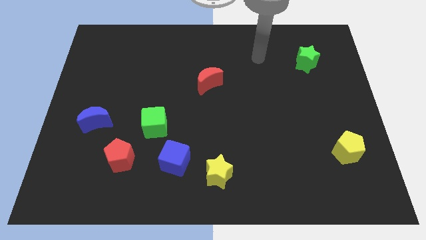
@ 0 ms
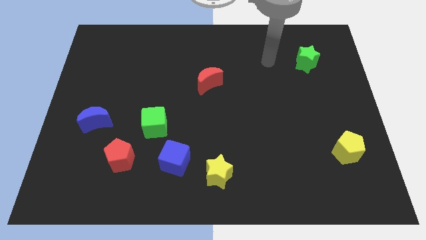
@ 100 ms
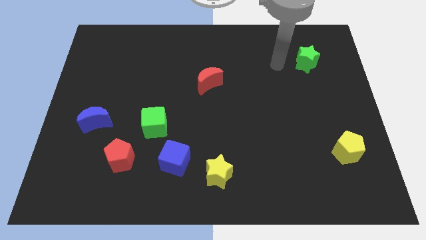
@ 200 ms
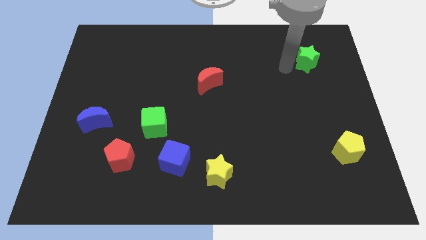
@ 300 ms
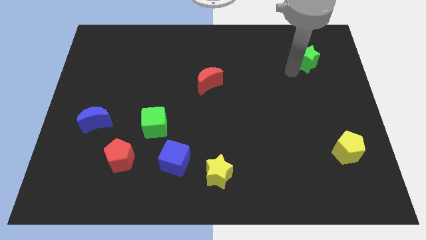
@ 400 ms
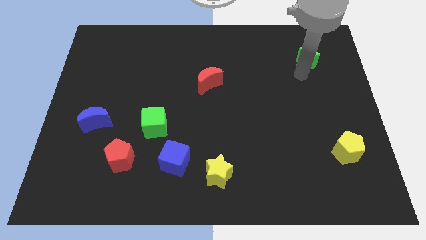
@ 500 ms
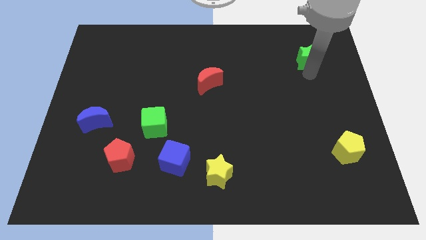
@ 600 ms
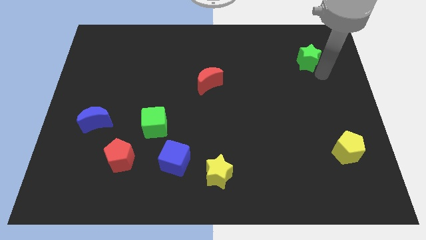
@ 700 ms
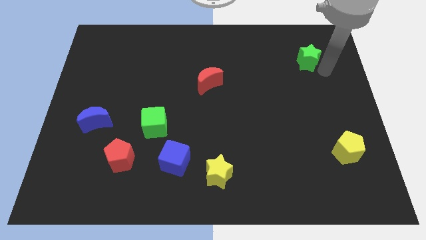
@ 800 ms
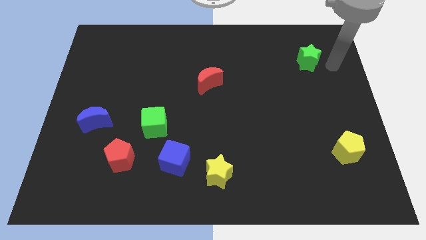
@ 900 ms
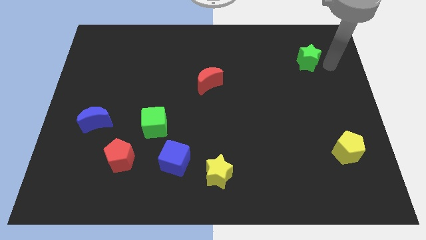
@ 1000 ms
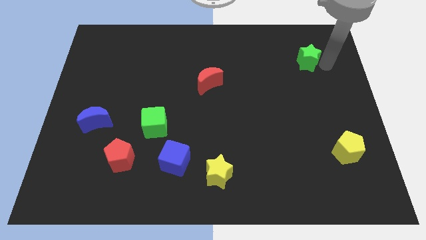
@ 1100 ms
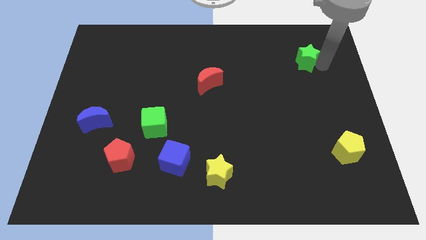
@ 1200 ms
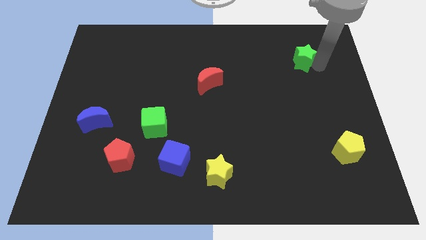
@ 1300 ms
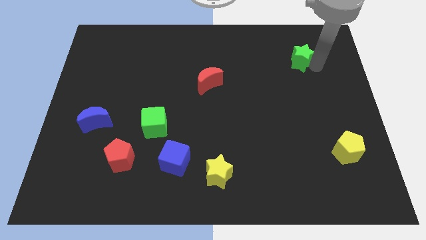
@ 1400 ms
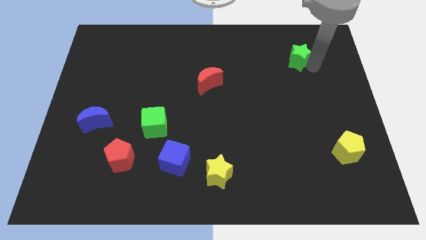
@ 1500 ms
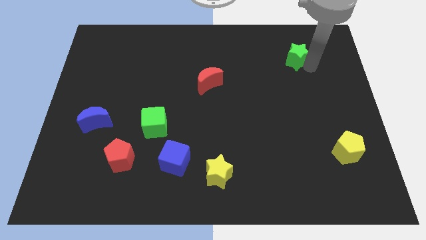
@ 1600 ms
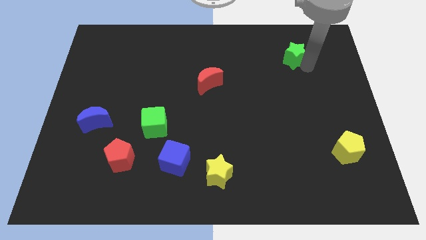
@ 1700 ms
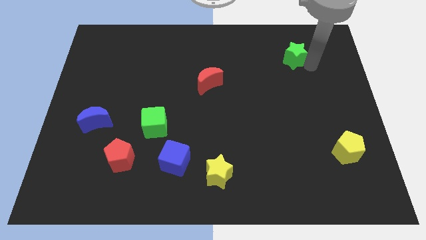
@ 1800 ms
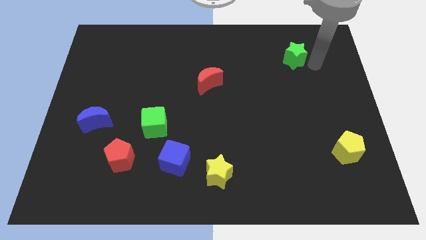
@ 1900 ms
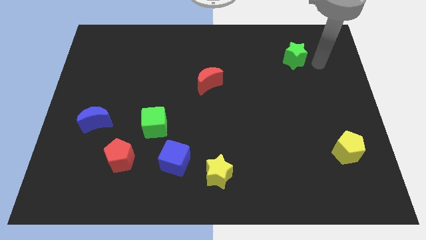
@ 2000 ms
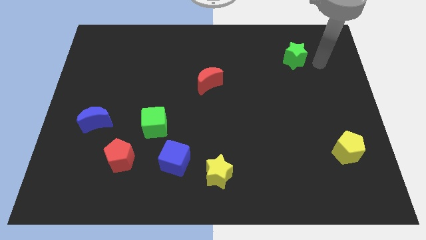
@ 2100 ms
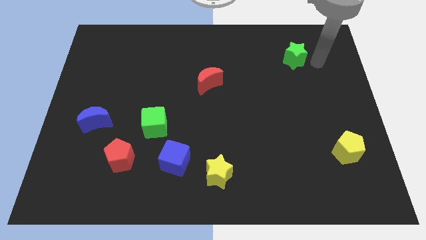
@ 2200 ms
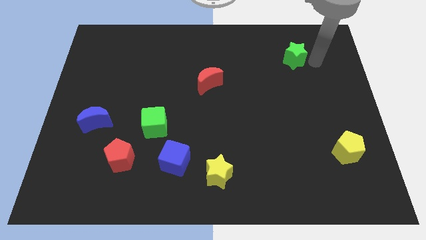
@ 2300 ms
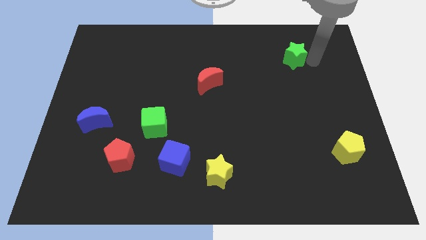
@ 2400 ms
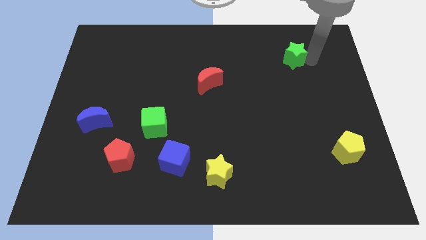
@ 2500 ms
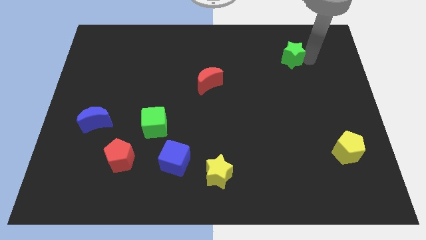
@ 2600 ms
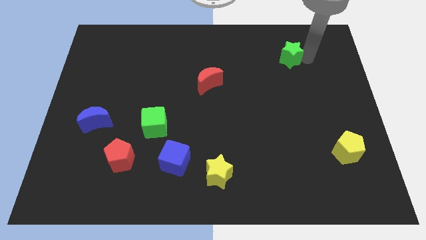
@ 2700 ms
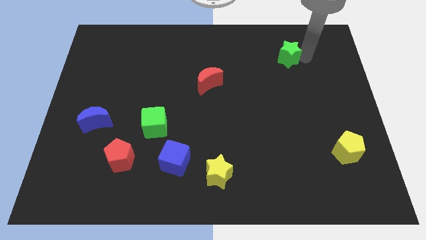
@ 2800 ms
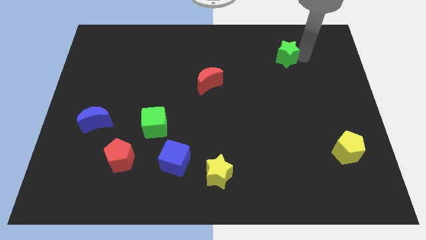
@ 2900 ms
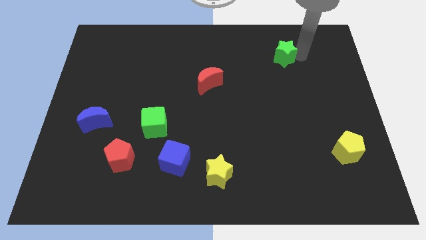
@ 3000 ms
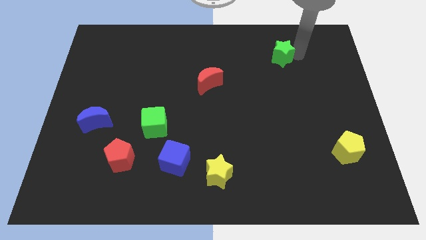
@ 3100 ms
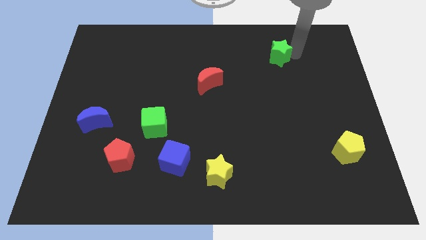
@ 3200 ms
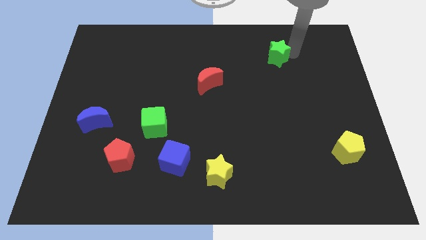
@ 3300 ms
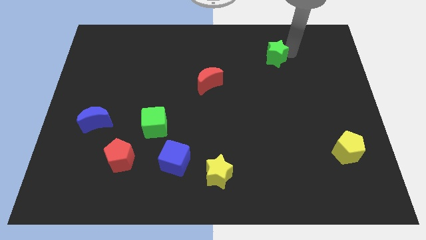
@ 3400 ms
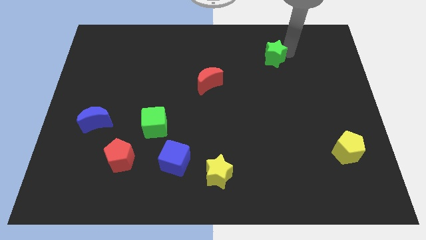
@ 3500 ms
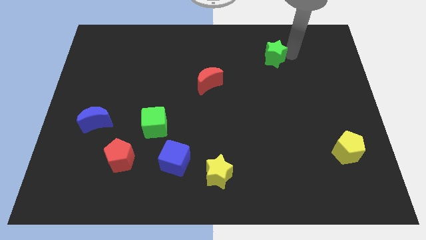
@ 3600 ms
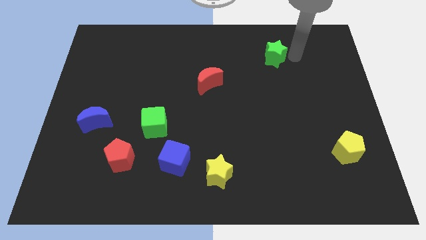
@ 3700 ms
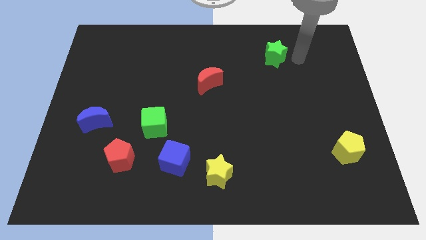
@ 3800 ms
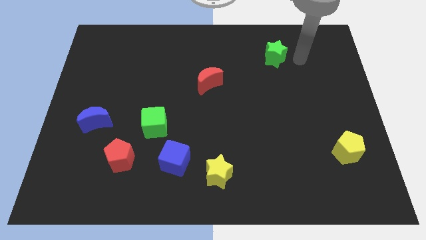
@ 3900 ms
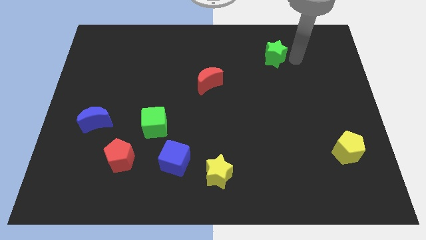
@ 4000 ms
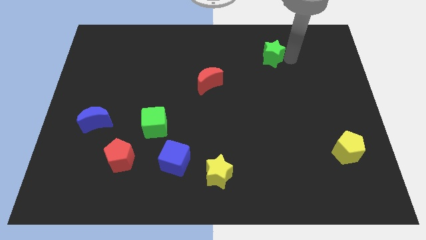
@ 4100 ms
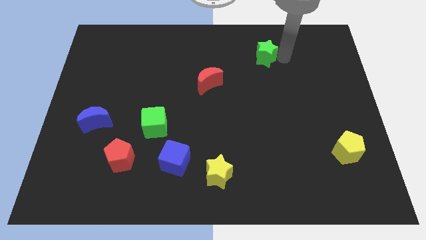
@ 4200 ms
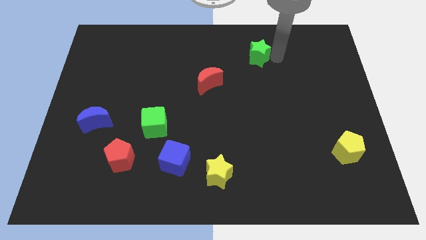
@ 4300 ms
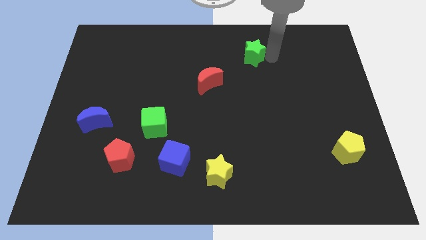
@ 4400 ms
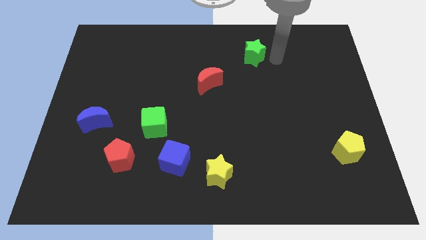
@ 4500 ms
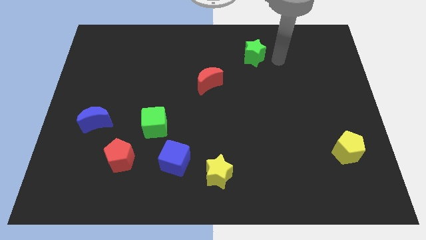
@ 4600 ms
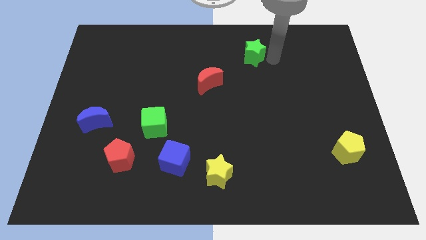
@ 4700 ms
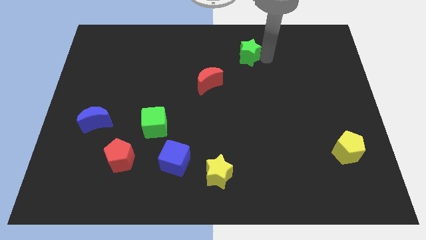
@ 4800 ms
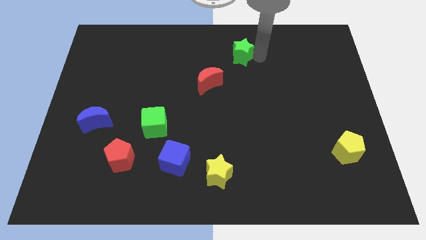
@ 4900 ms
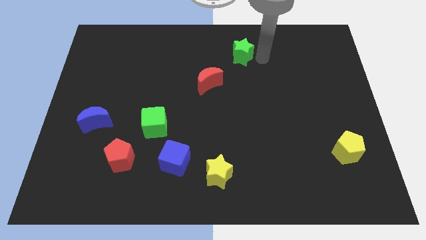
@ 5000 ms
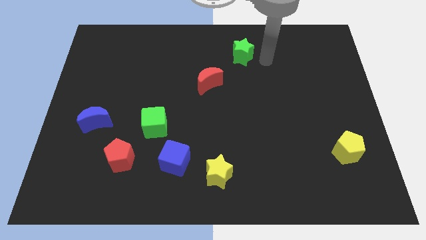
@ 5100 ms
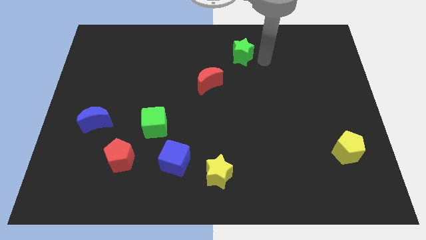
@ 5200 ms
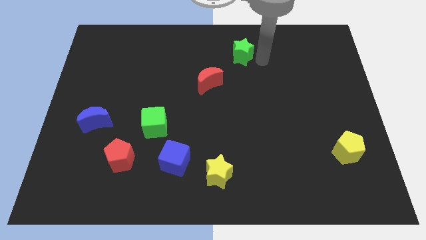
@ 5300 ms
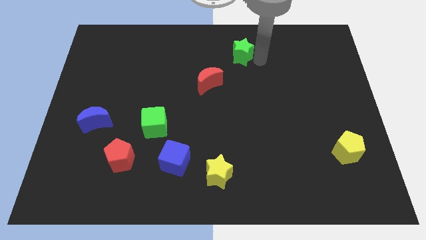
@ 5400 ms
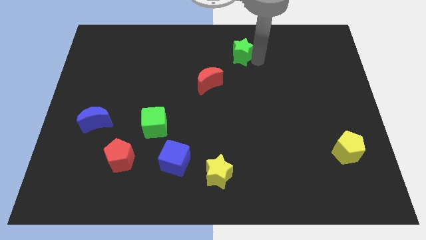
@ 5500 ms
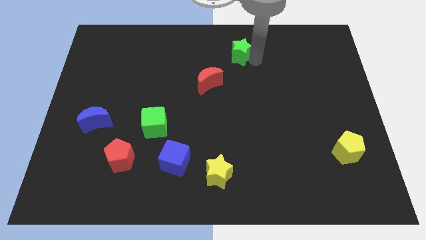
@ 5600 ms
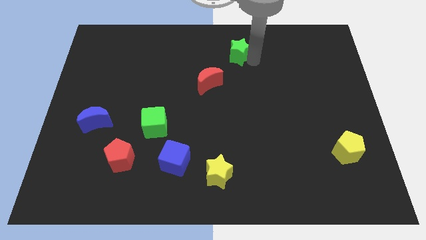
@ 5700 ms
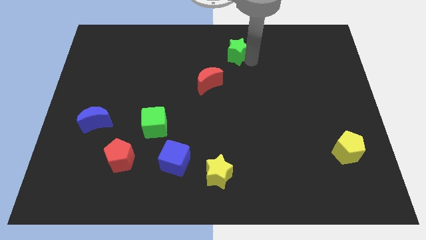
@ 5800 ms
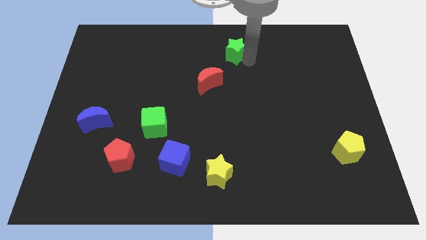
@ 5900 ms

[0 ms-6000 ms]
push the green star to the towards your base

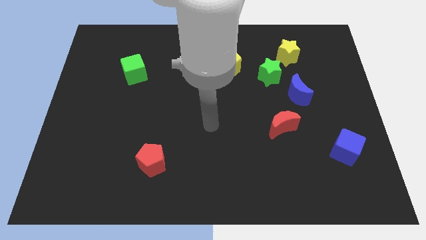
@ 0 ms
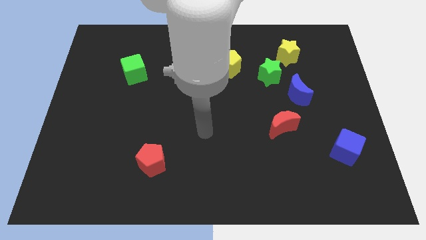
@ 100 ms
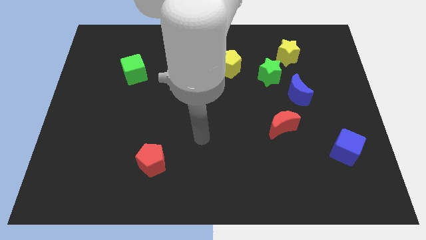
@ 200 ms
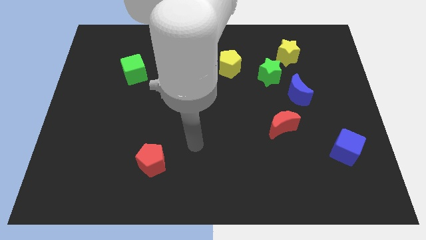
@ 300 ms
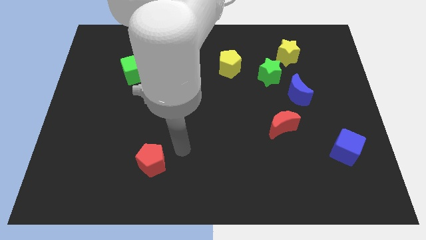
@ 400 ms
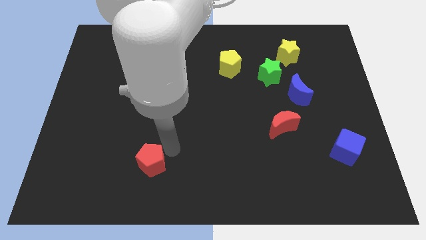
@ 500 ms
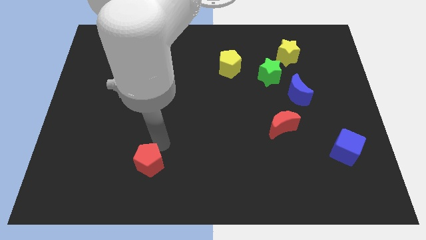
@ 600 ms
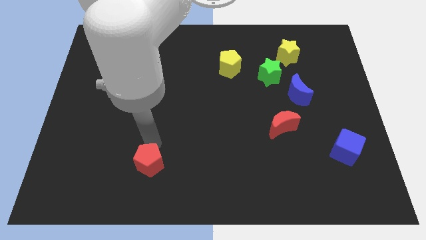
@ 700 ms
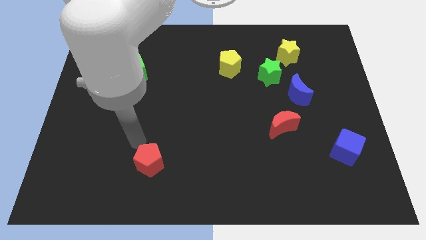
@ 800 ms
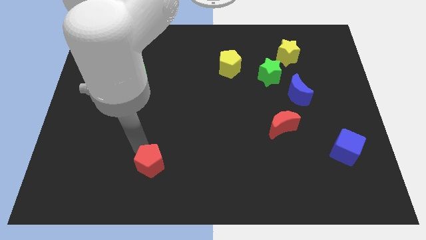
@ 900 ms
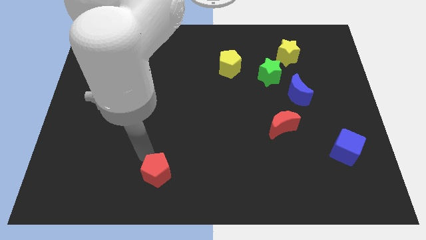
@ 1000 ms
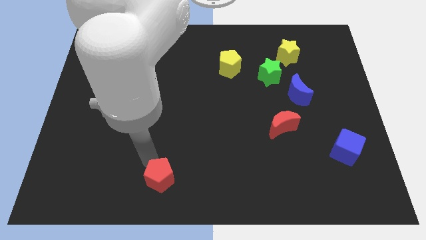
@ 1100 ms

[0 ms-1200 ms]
put the red pentagon to the bottom side
